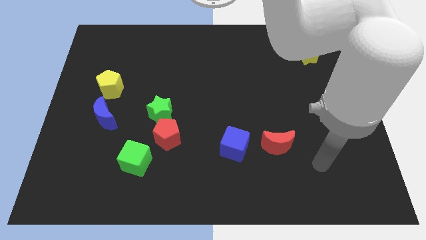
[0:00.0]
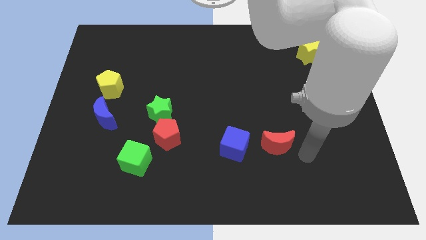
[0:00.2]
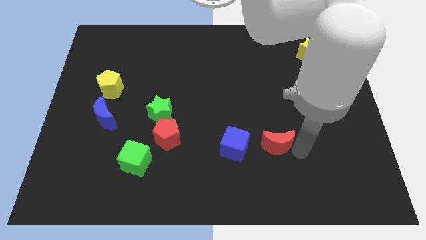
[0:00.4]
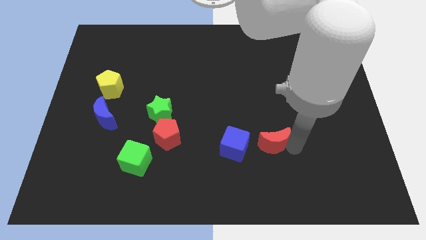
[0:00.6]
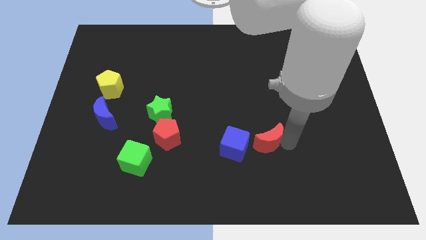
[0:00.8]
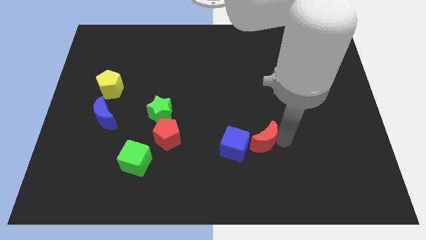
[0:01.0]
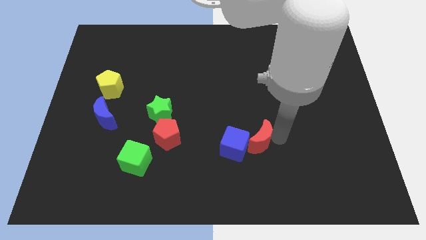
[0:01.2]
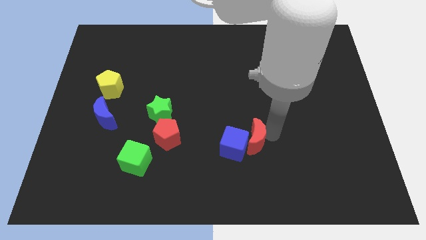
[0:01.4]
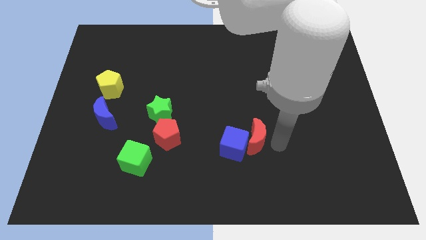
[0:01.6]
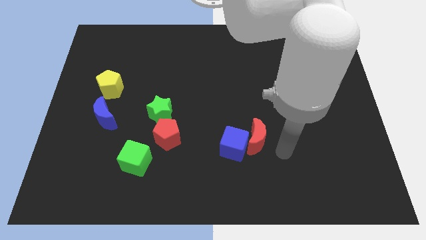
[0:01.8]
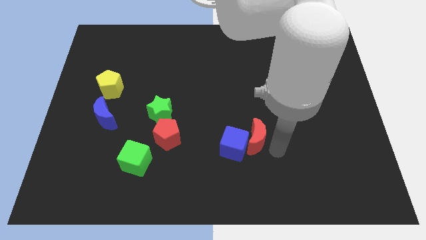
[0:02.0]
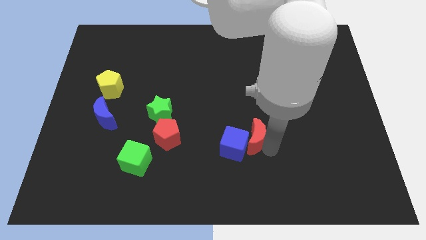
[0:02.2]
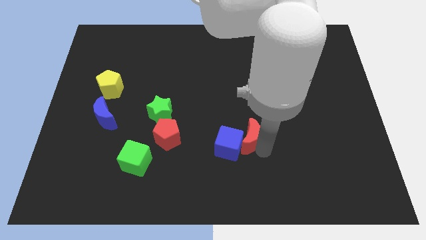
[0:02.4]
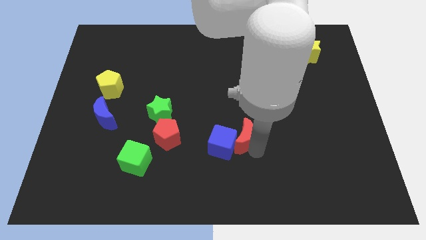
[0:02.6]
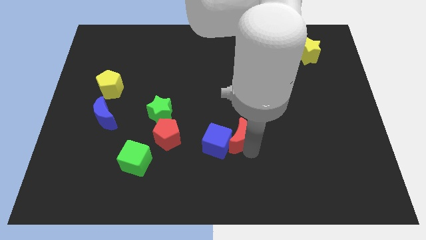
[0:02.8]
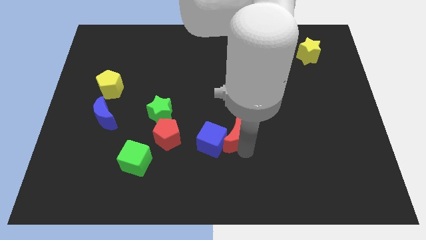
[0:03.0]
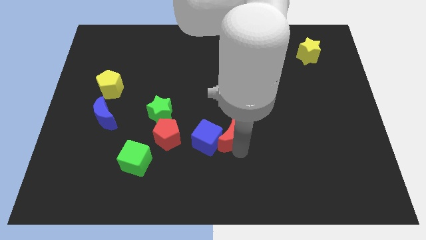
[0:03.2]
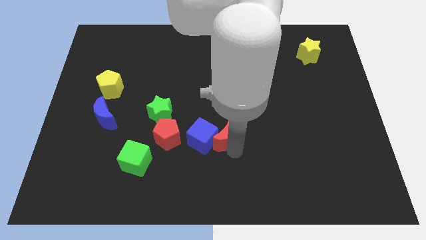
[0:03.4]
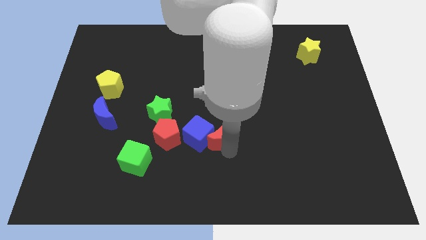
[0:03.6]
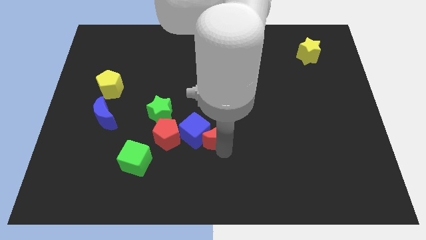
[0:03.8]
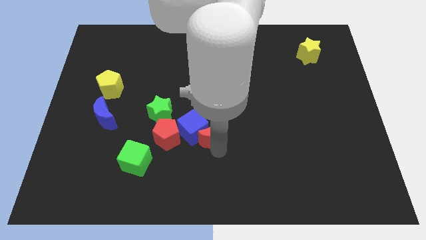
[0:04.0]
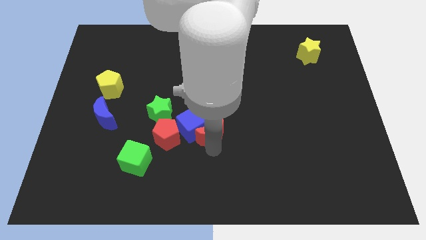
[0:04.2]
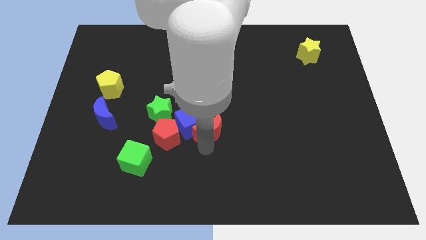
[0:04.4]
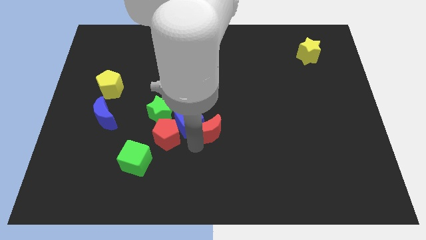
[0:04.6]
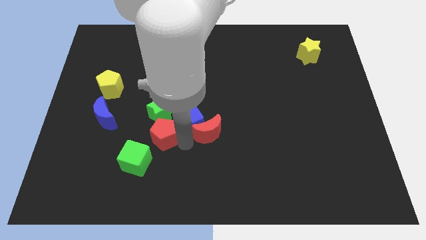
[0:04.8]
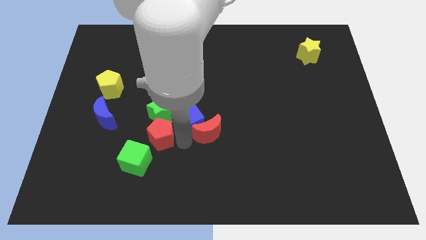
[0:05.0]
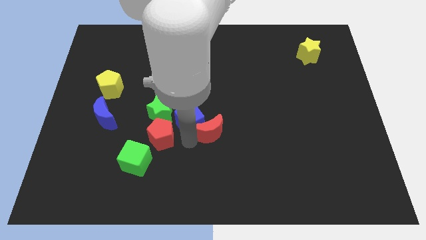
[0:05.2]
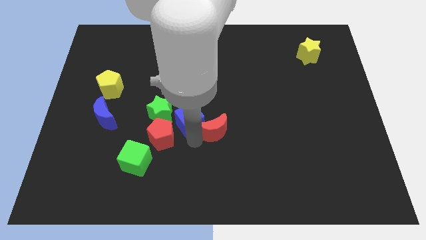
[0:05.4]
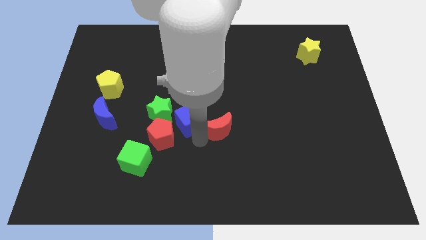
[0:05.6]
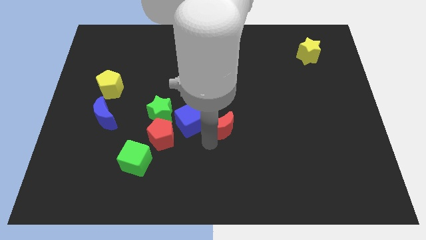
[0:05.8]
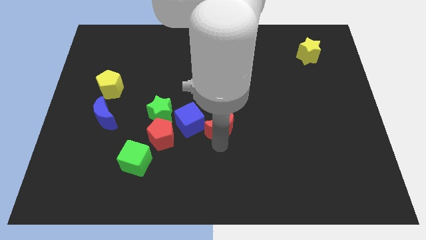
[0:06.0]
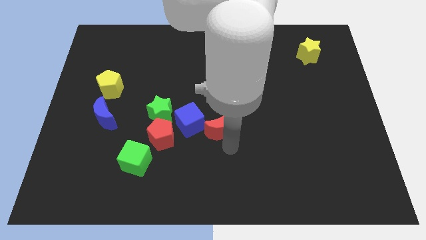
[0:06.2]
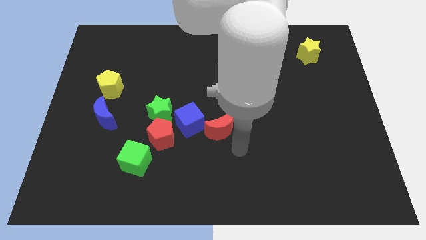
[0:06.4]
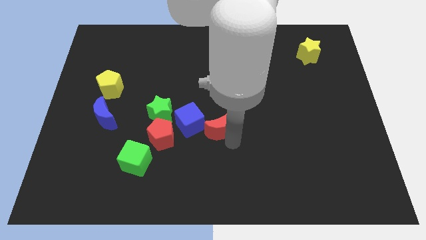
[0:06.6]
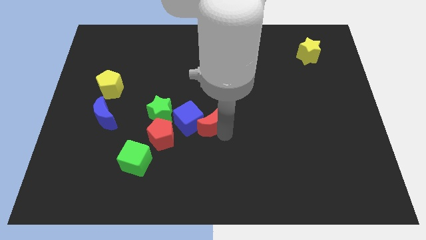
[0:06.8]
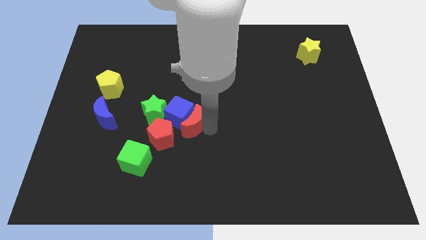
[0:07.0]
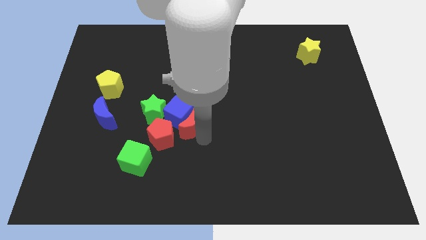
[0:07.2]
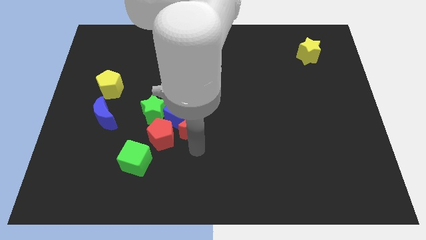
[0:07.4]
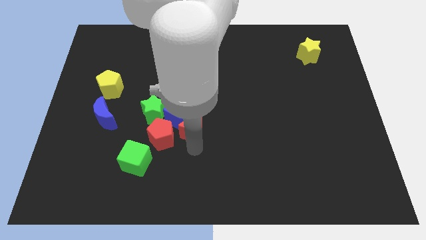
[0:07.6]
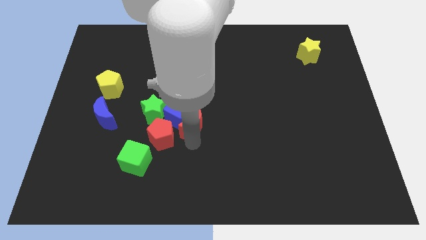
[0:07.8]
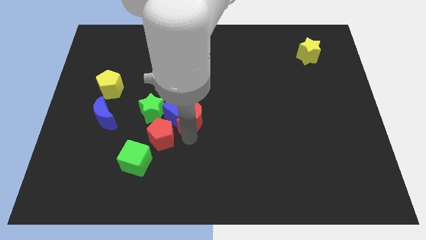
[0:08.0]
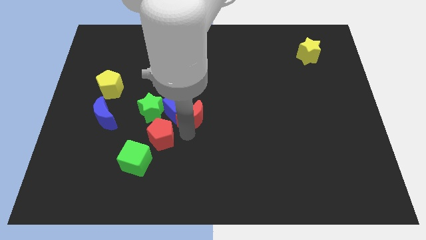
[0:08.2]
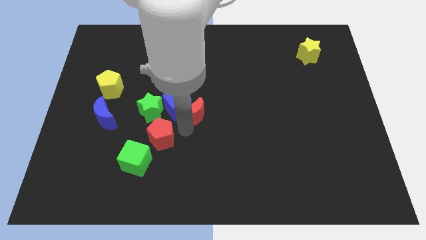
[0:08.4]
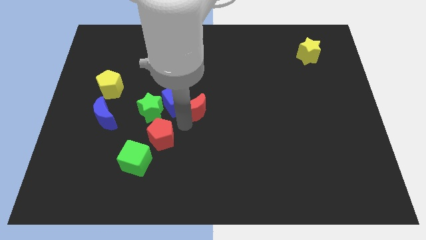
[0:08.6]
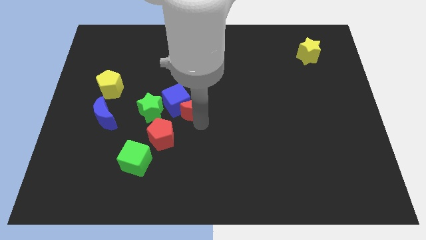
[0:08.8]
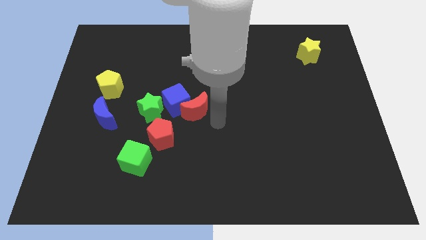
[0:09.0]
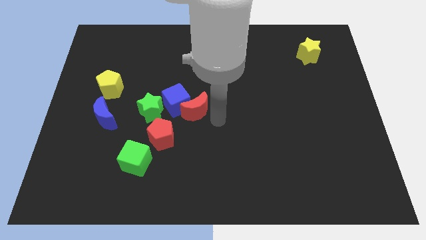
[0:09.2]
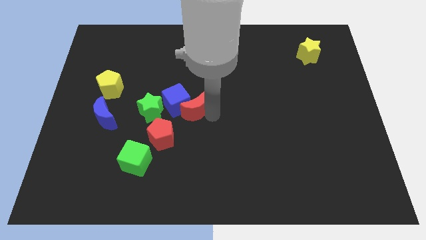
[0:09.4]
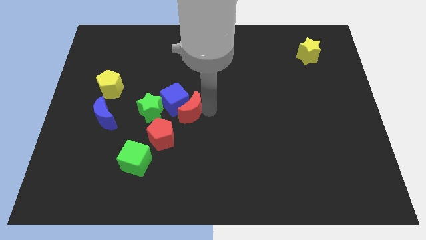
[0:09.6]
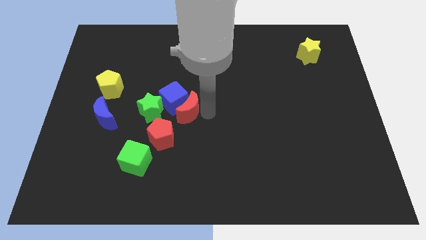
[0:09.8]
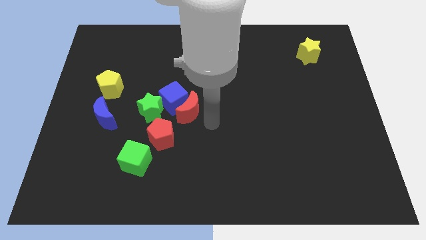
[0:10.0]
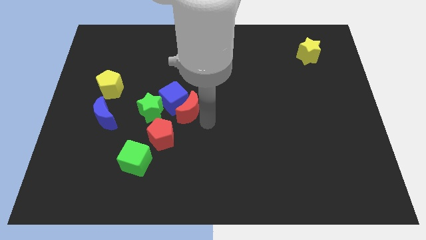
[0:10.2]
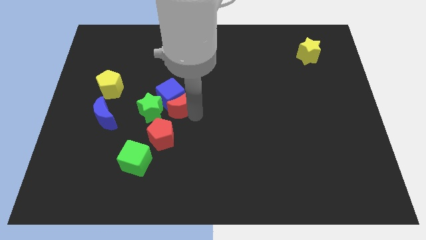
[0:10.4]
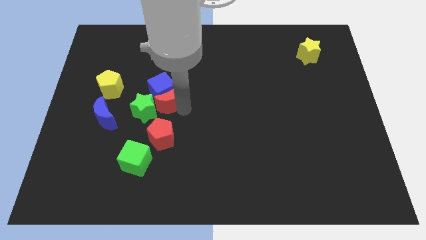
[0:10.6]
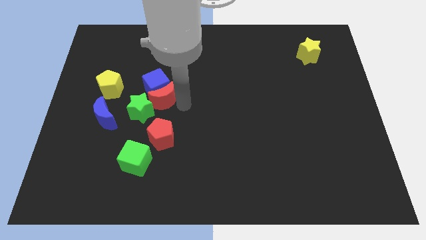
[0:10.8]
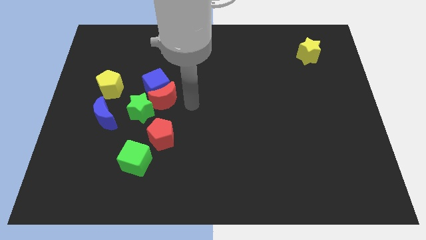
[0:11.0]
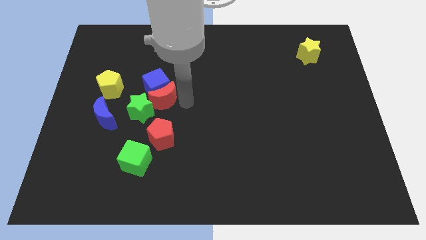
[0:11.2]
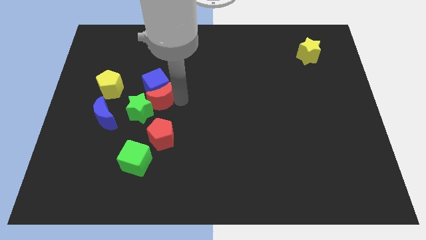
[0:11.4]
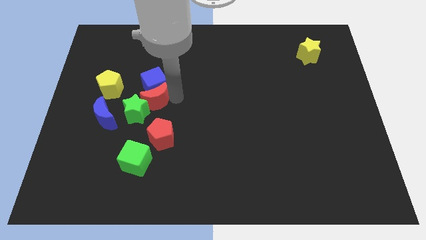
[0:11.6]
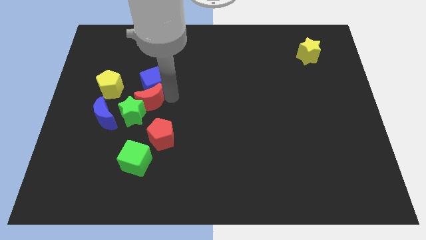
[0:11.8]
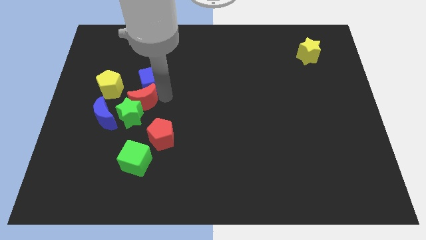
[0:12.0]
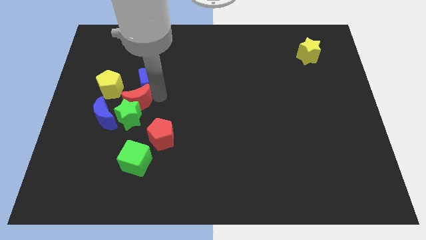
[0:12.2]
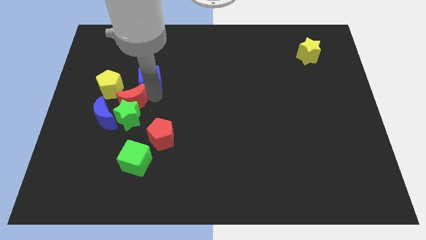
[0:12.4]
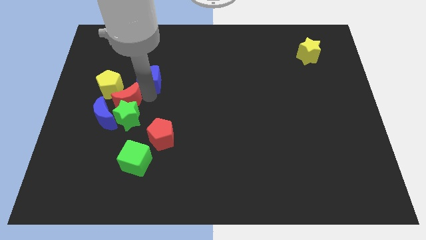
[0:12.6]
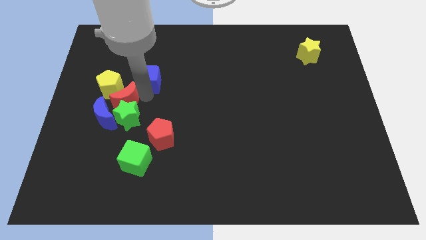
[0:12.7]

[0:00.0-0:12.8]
push the red moon close to the yellow pentagon

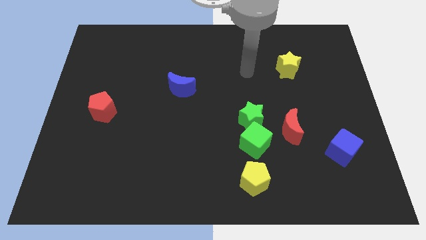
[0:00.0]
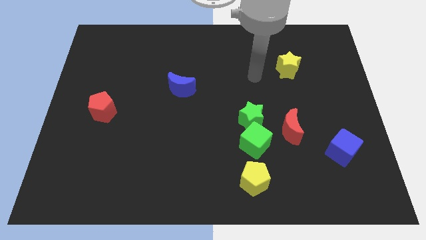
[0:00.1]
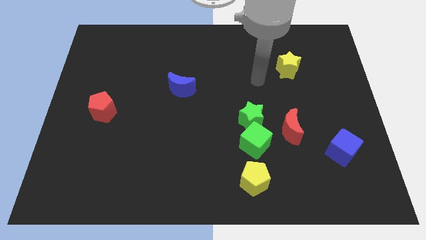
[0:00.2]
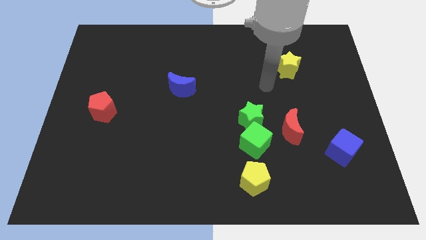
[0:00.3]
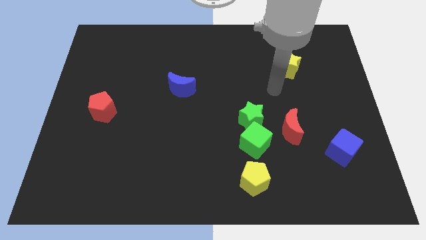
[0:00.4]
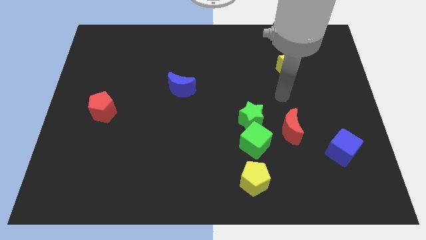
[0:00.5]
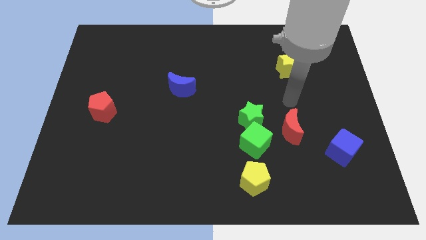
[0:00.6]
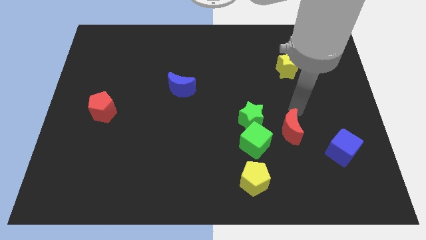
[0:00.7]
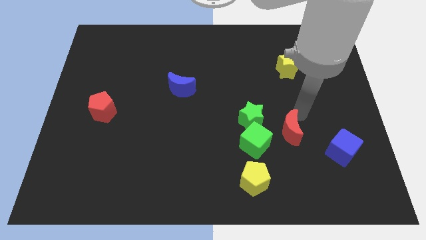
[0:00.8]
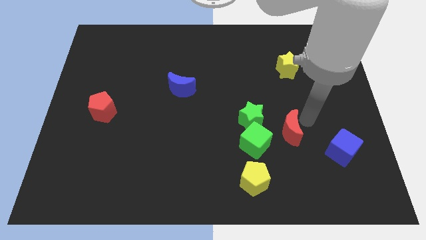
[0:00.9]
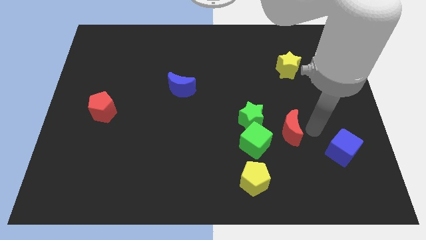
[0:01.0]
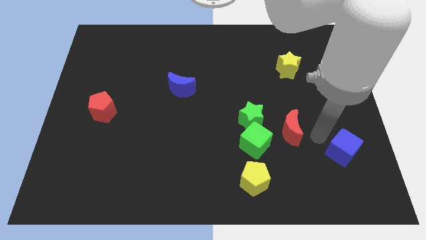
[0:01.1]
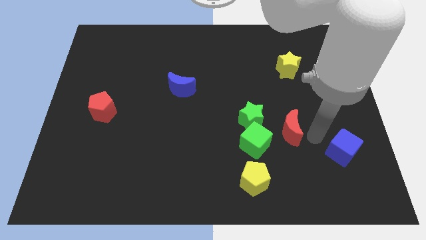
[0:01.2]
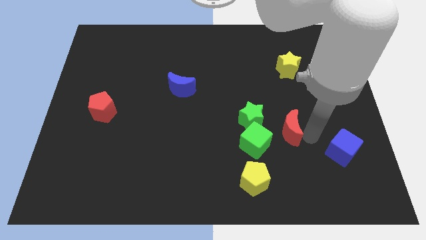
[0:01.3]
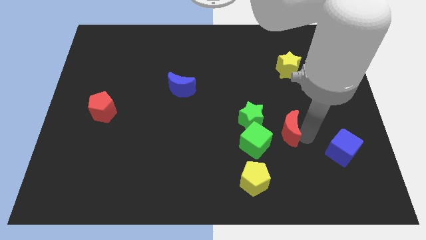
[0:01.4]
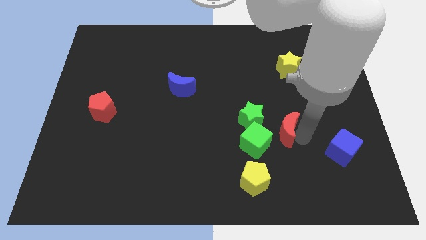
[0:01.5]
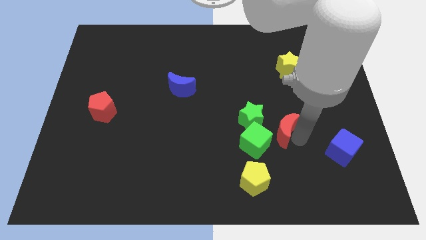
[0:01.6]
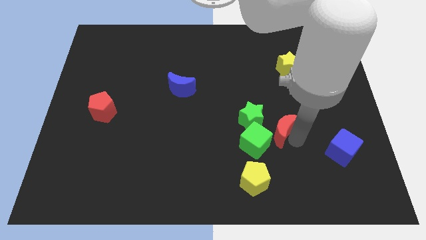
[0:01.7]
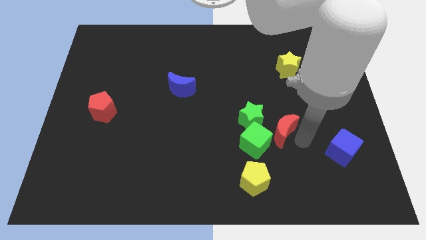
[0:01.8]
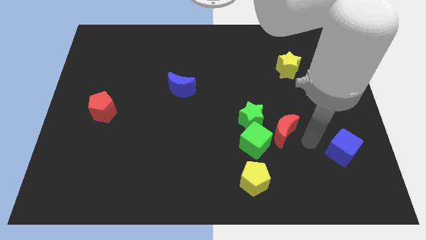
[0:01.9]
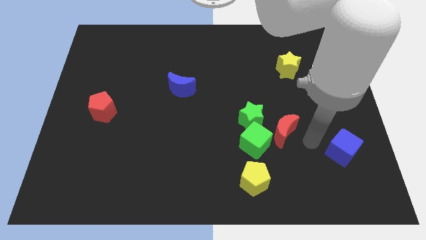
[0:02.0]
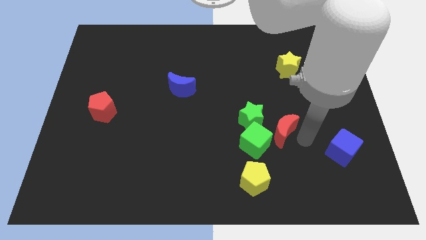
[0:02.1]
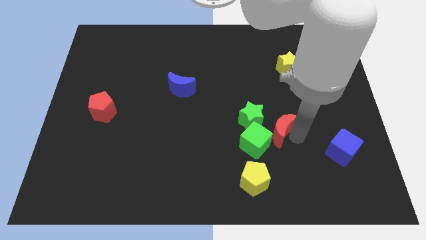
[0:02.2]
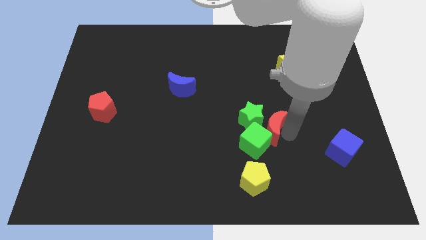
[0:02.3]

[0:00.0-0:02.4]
put the red moon to the green star
